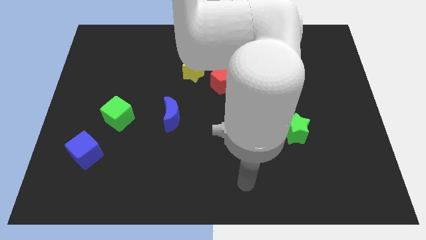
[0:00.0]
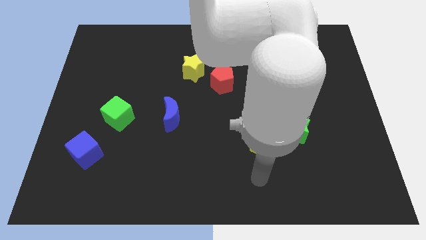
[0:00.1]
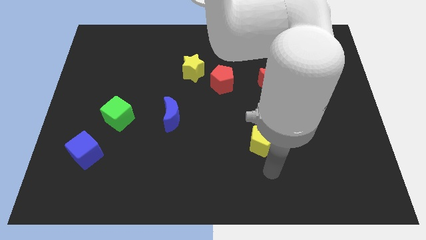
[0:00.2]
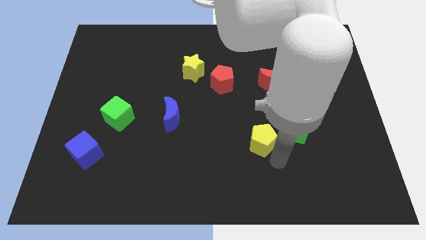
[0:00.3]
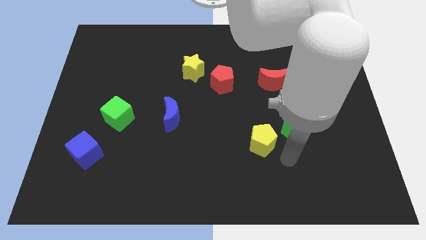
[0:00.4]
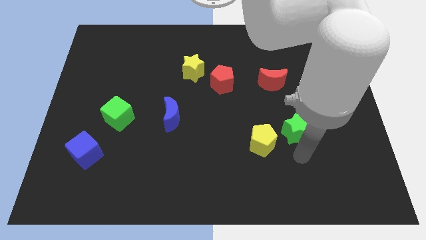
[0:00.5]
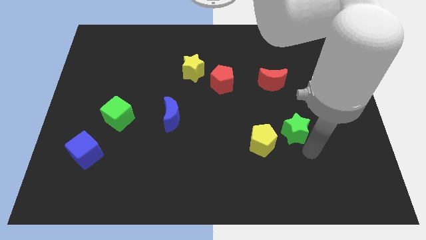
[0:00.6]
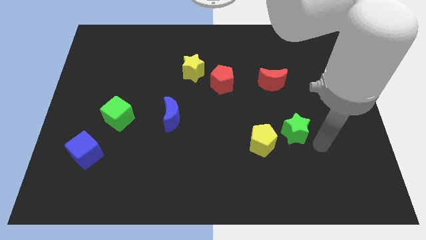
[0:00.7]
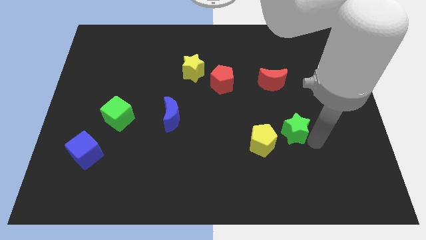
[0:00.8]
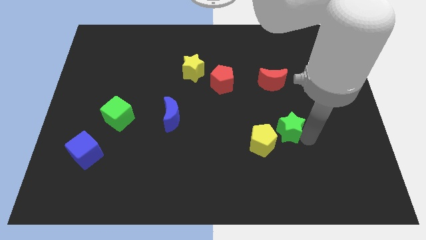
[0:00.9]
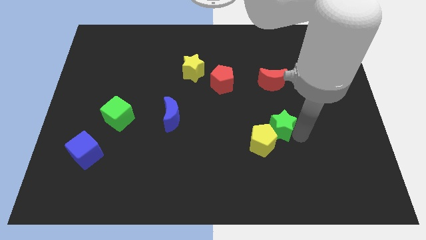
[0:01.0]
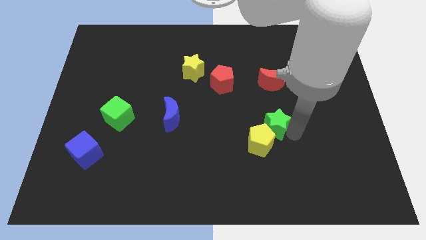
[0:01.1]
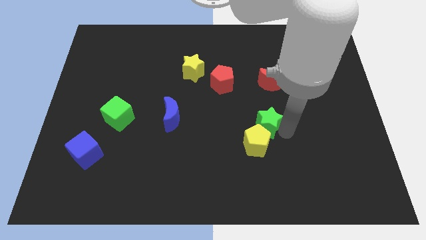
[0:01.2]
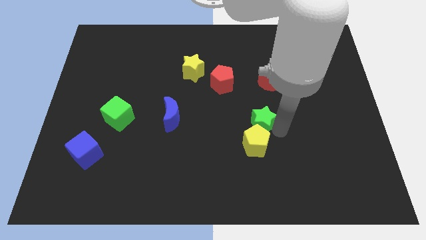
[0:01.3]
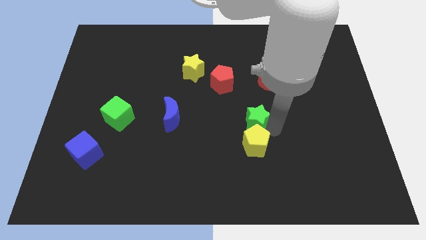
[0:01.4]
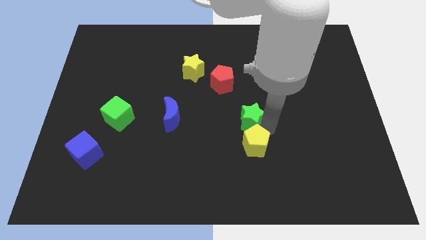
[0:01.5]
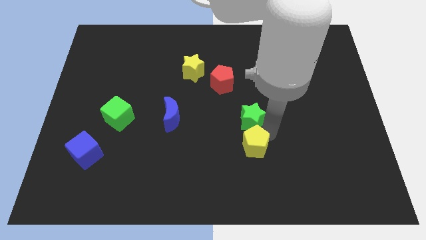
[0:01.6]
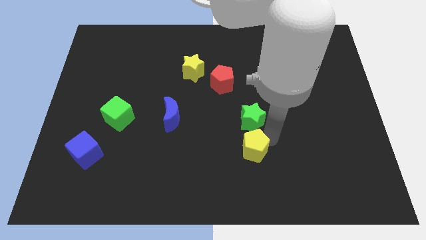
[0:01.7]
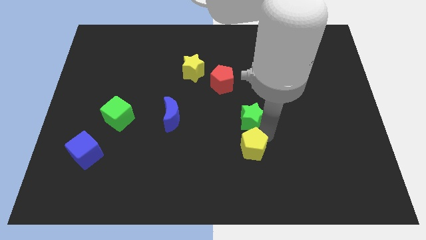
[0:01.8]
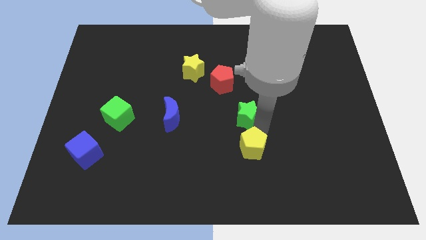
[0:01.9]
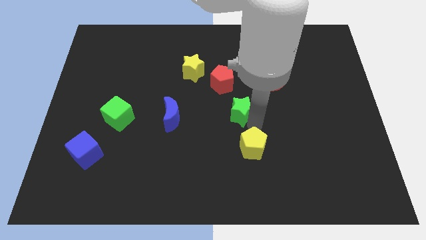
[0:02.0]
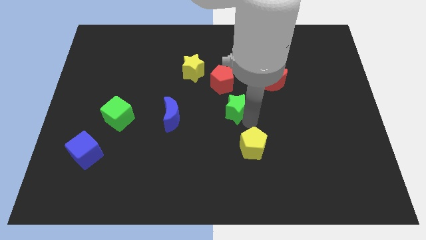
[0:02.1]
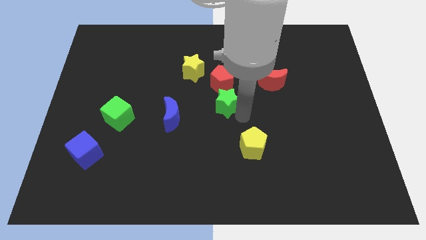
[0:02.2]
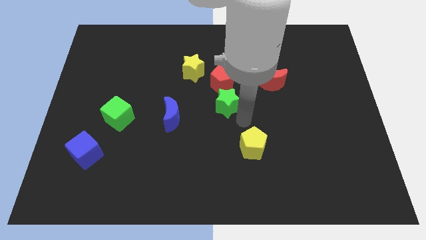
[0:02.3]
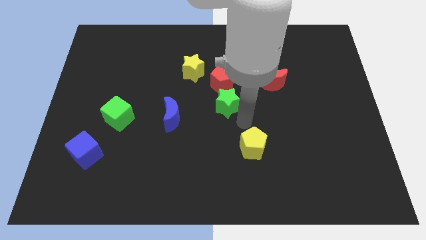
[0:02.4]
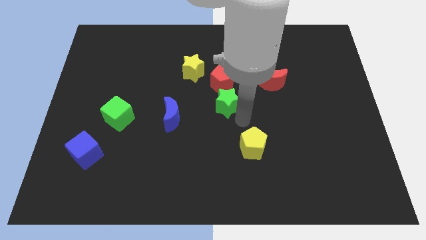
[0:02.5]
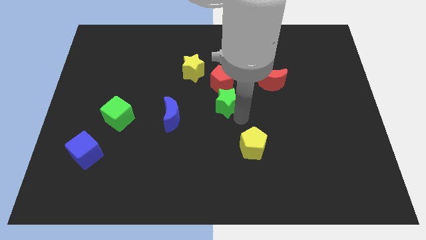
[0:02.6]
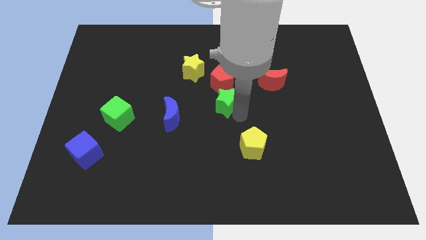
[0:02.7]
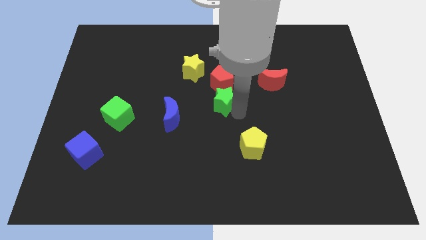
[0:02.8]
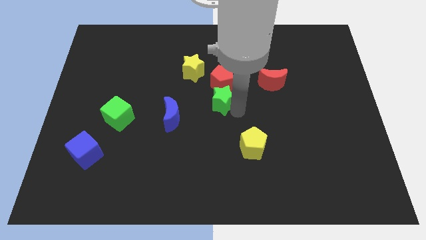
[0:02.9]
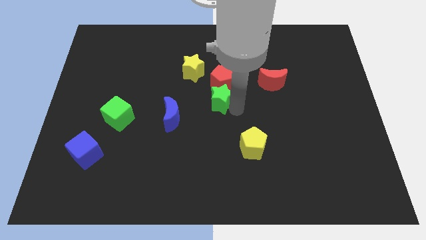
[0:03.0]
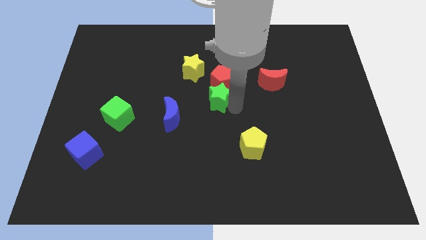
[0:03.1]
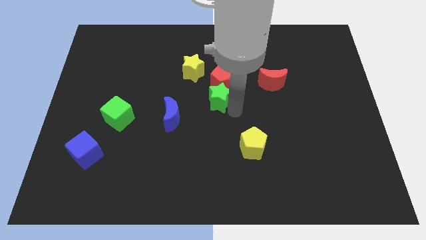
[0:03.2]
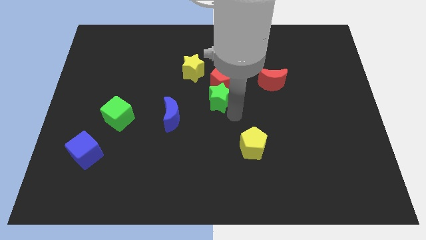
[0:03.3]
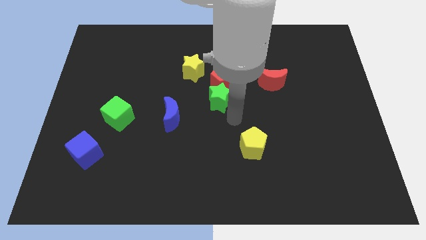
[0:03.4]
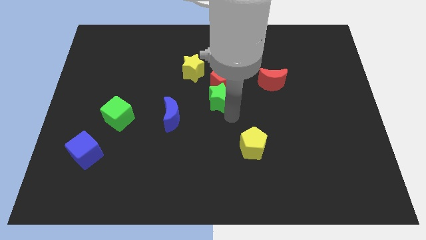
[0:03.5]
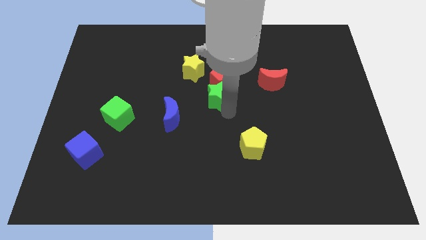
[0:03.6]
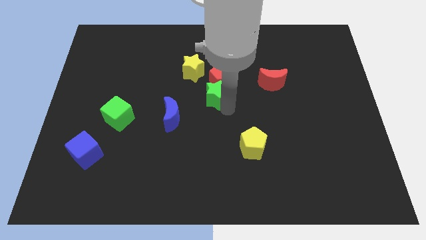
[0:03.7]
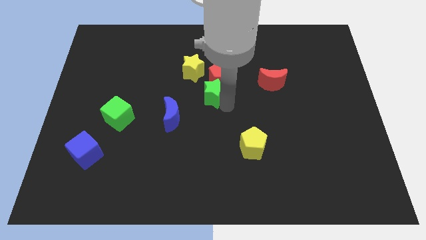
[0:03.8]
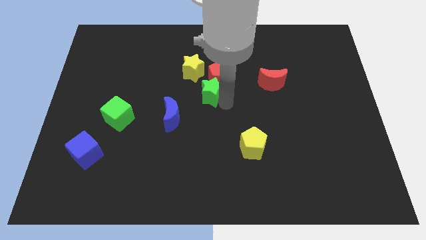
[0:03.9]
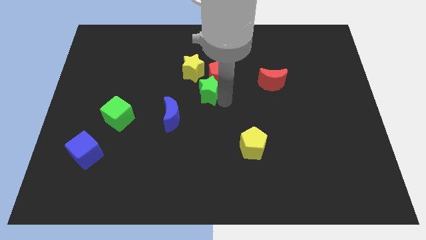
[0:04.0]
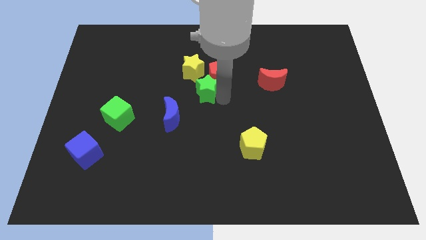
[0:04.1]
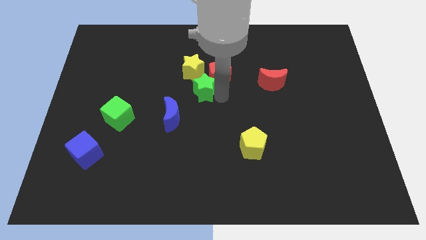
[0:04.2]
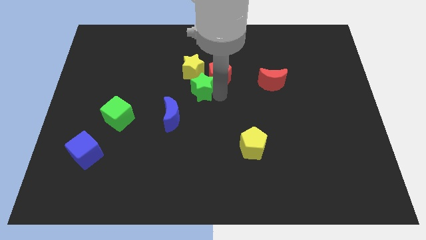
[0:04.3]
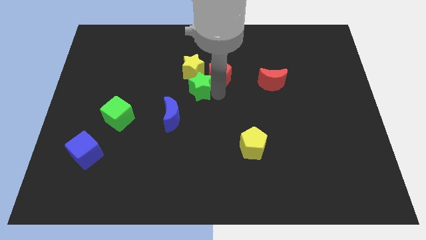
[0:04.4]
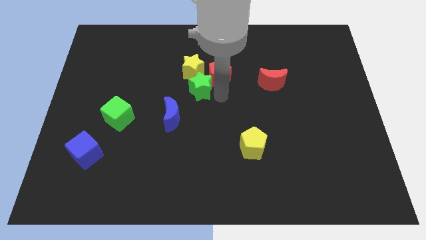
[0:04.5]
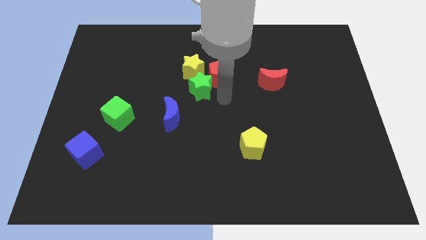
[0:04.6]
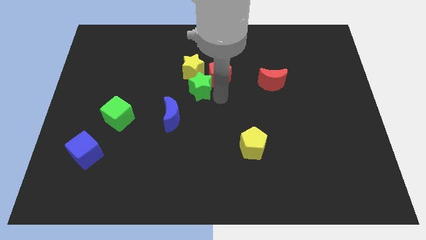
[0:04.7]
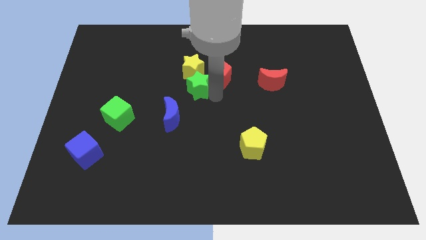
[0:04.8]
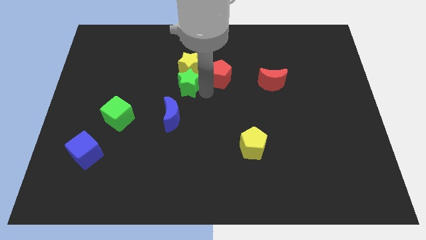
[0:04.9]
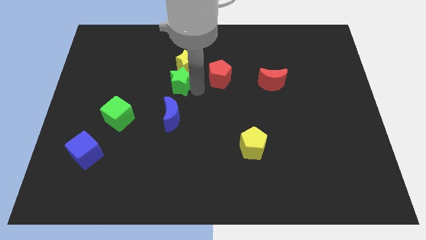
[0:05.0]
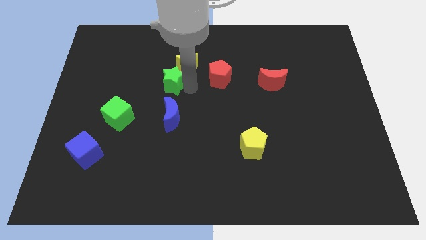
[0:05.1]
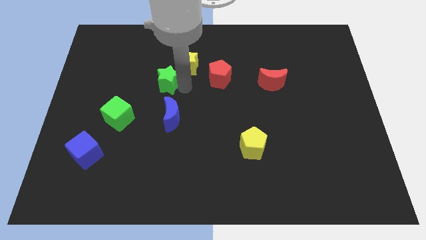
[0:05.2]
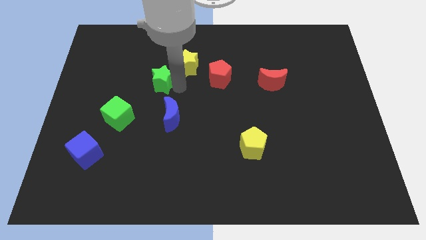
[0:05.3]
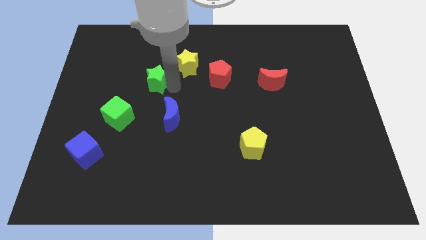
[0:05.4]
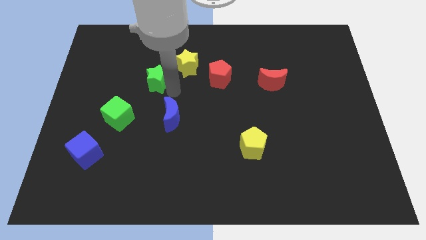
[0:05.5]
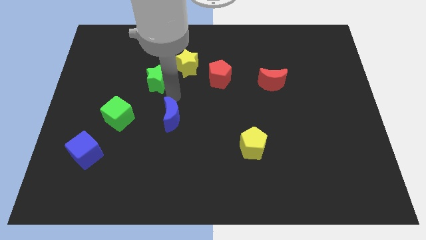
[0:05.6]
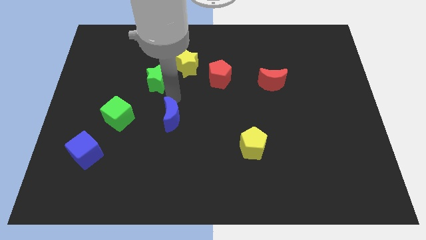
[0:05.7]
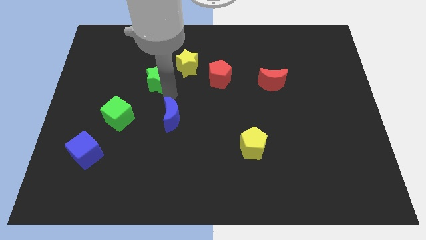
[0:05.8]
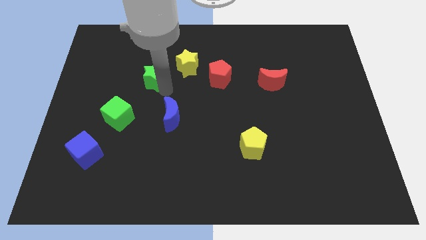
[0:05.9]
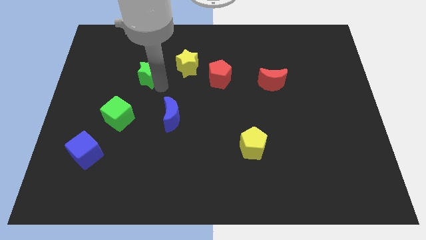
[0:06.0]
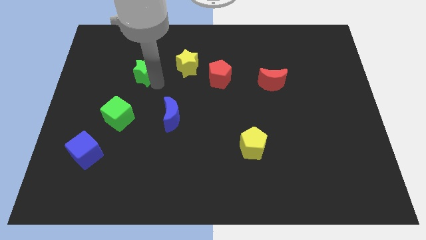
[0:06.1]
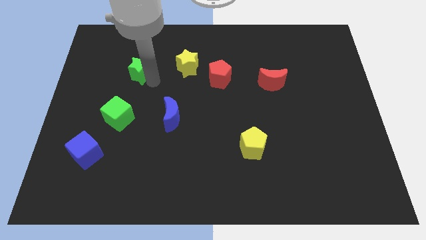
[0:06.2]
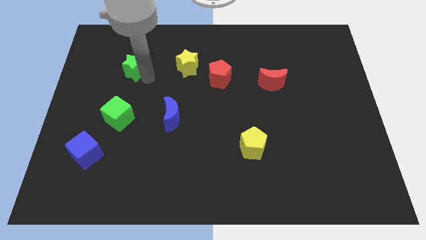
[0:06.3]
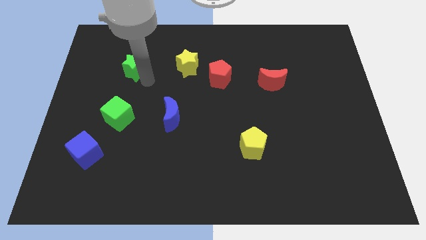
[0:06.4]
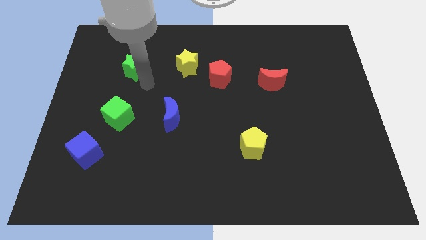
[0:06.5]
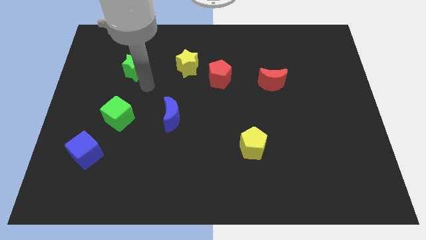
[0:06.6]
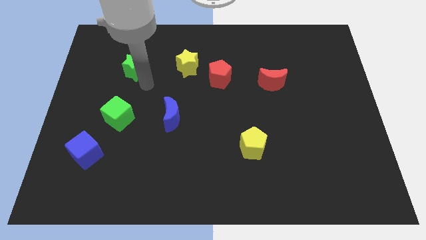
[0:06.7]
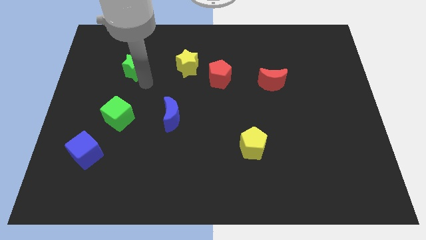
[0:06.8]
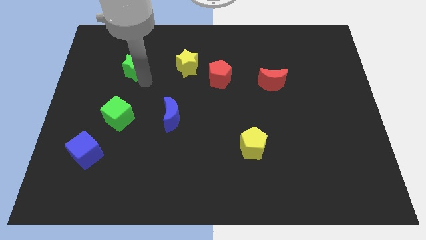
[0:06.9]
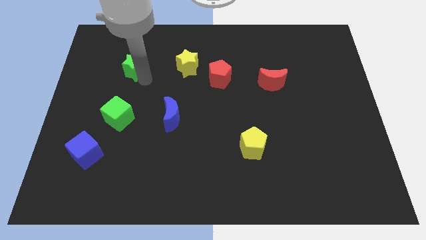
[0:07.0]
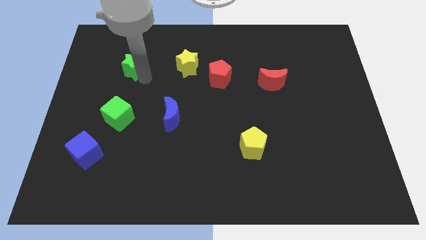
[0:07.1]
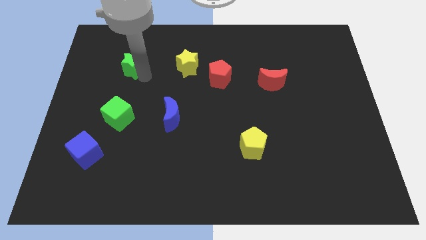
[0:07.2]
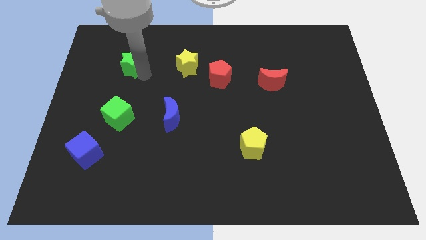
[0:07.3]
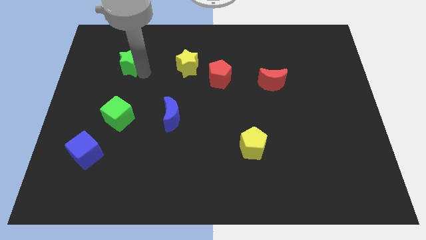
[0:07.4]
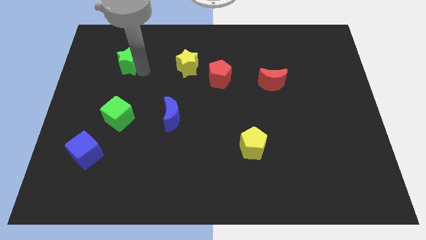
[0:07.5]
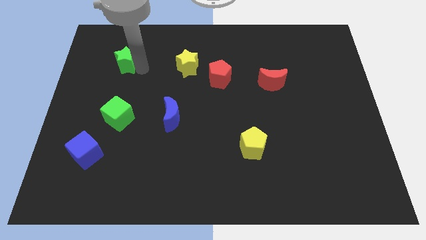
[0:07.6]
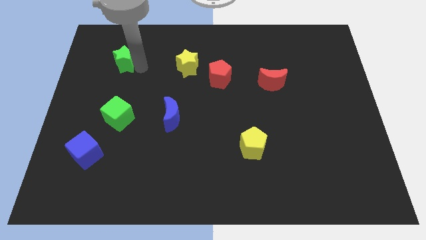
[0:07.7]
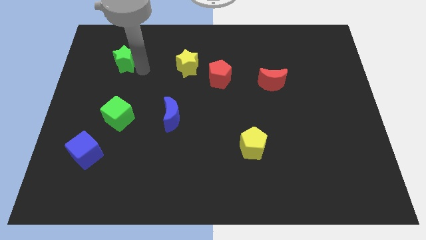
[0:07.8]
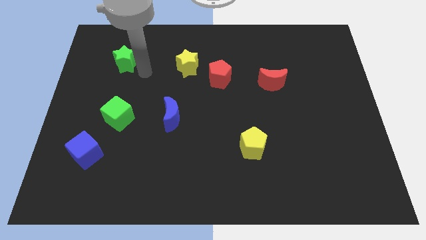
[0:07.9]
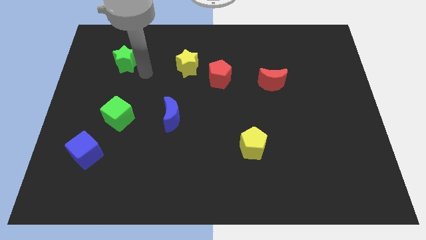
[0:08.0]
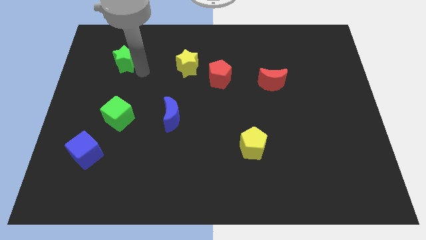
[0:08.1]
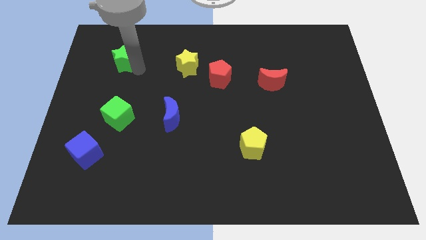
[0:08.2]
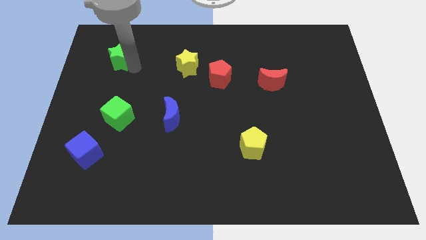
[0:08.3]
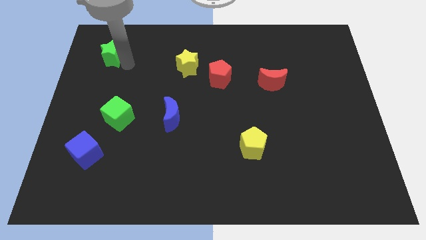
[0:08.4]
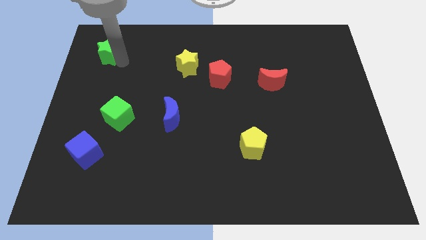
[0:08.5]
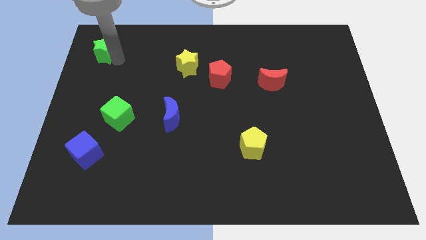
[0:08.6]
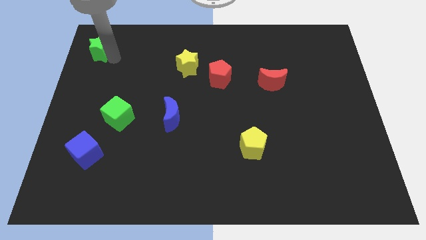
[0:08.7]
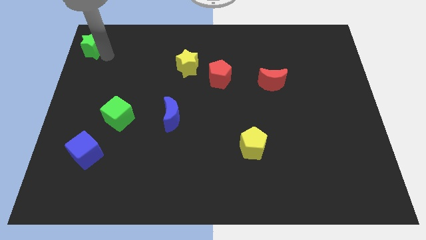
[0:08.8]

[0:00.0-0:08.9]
push the green star to the top left
